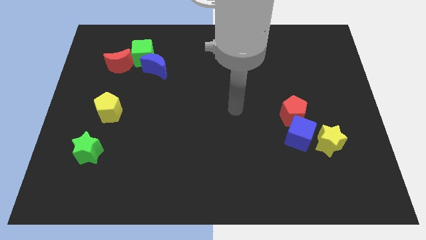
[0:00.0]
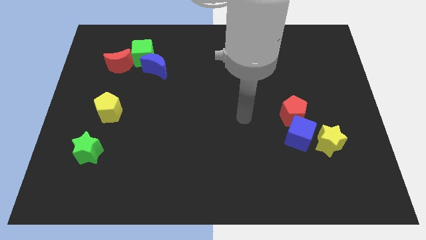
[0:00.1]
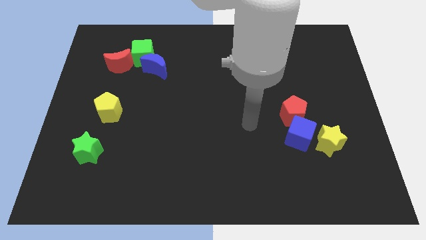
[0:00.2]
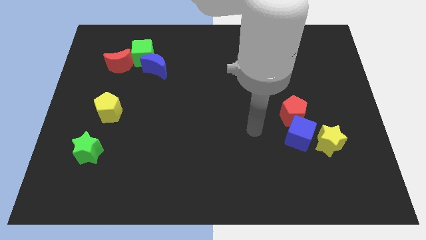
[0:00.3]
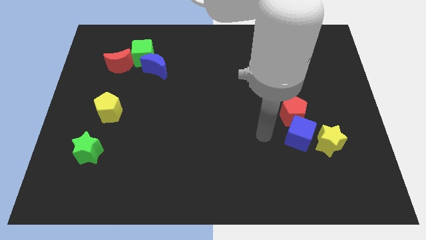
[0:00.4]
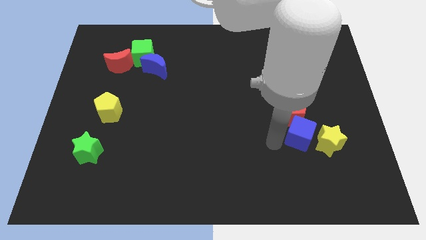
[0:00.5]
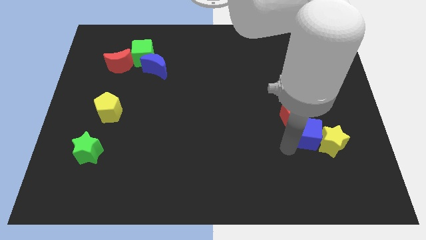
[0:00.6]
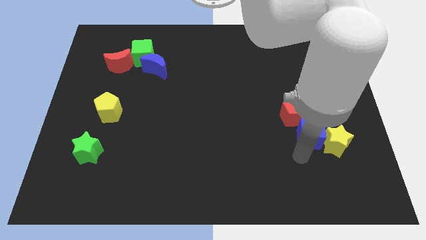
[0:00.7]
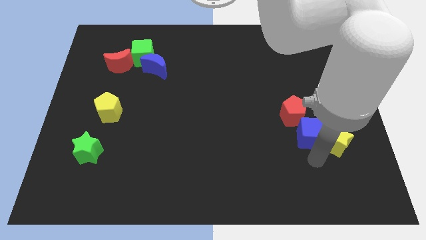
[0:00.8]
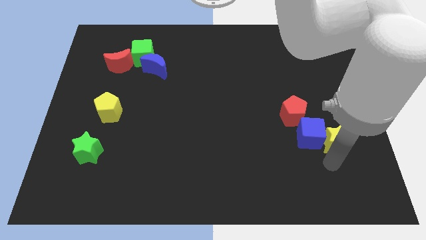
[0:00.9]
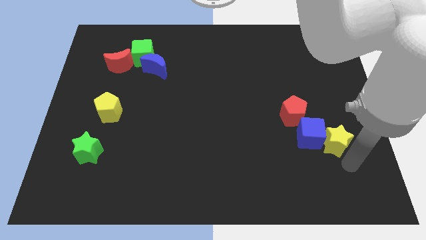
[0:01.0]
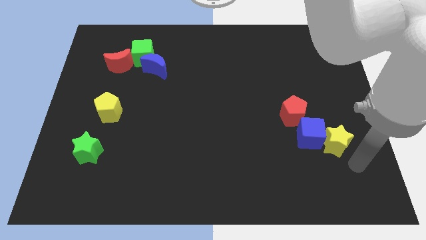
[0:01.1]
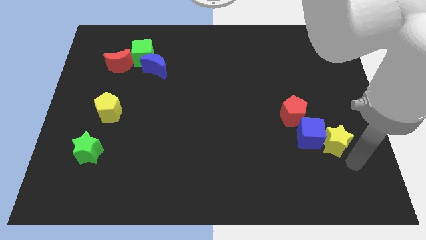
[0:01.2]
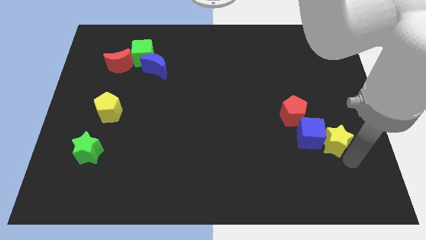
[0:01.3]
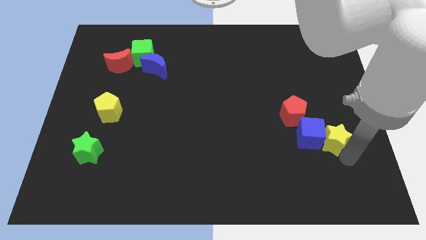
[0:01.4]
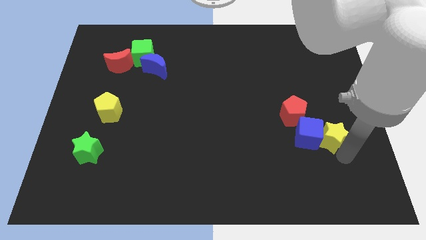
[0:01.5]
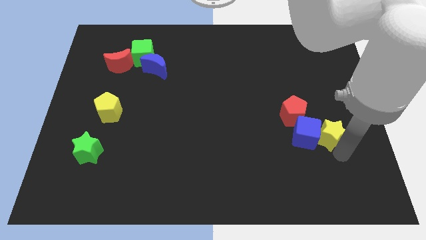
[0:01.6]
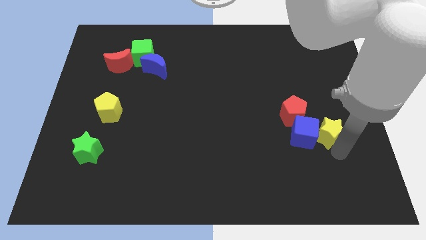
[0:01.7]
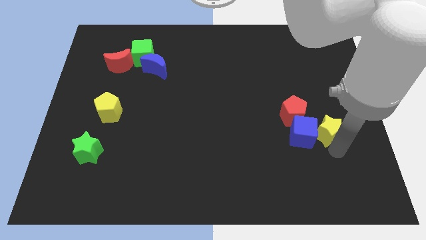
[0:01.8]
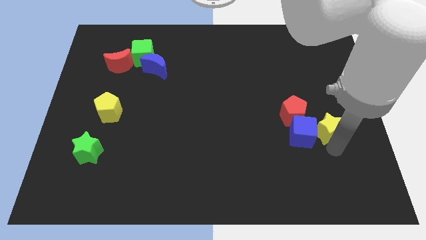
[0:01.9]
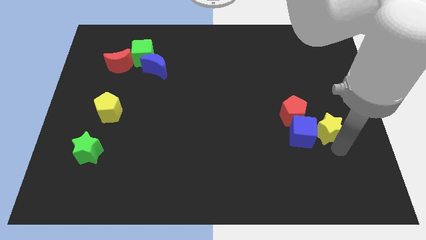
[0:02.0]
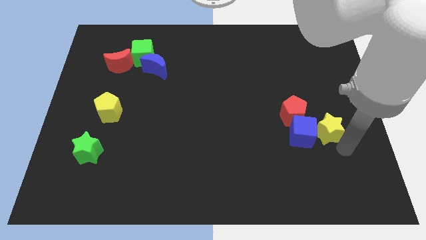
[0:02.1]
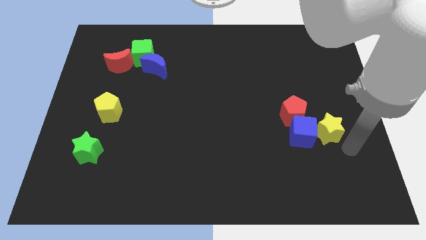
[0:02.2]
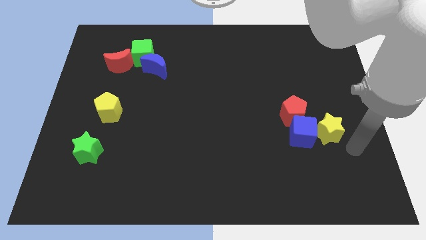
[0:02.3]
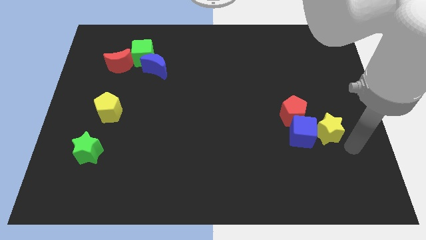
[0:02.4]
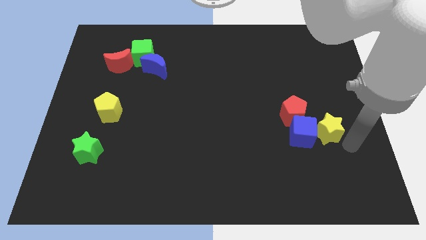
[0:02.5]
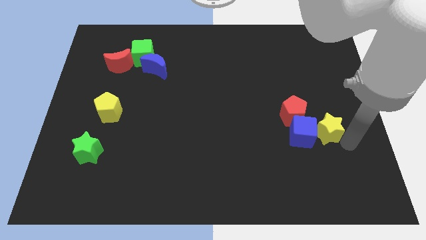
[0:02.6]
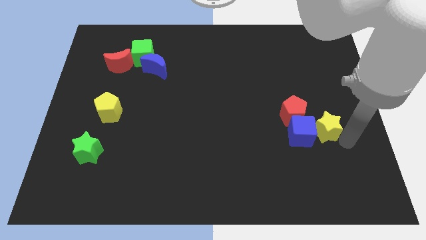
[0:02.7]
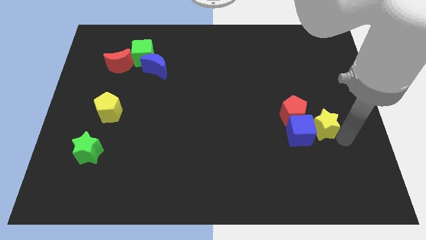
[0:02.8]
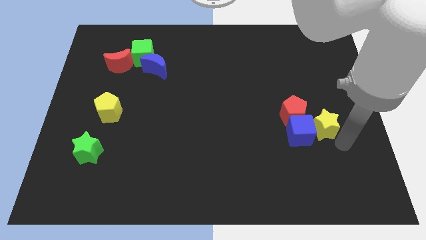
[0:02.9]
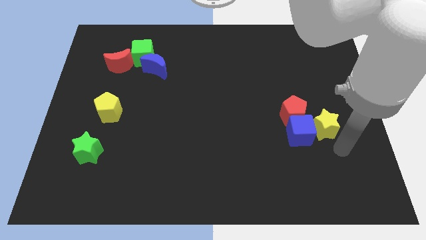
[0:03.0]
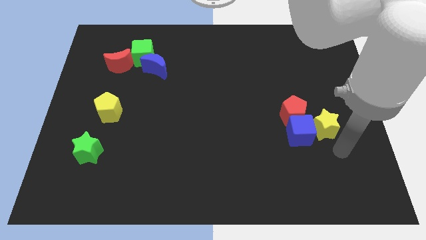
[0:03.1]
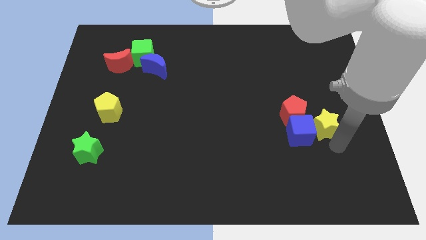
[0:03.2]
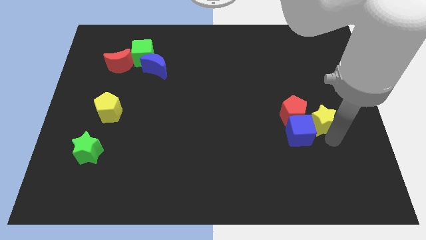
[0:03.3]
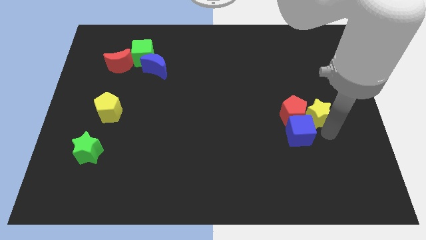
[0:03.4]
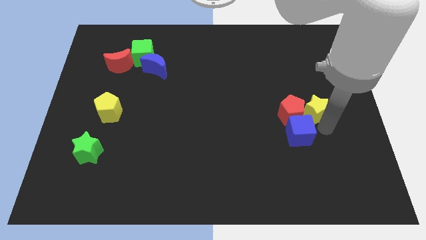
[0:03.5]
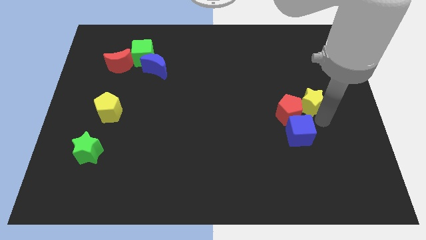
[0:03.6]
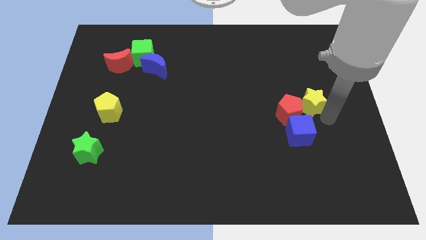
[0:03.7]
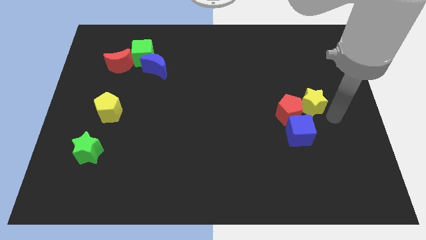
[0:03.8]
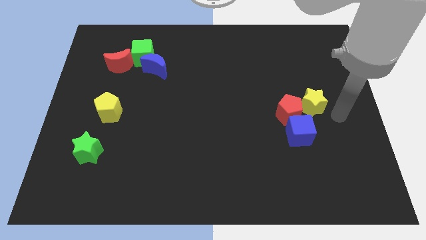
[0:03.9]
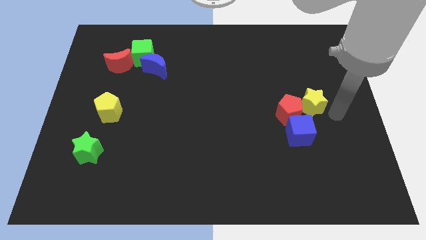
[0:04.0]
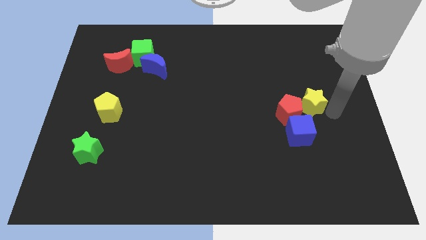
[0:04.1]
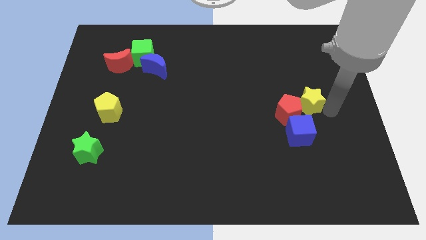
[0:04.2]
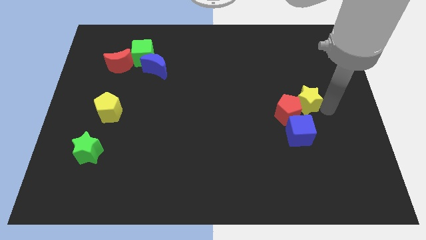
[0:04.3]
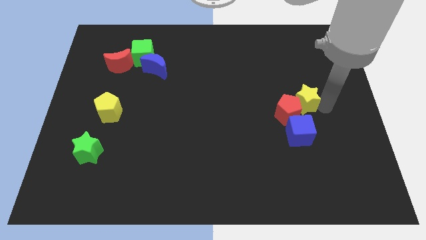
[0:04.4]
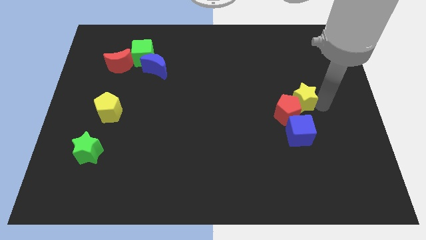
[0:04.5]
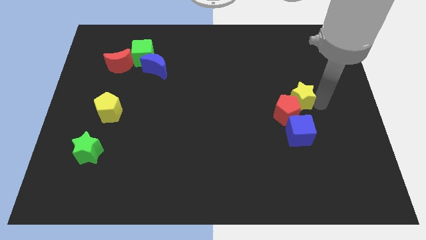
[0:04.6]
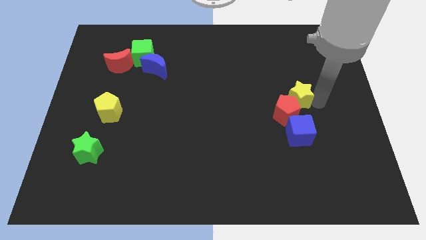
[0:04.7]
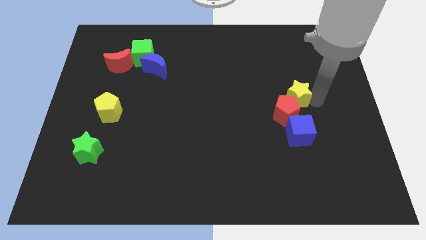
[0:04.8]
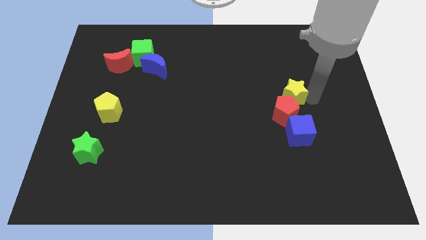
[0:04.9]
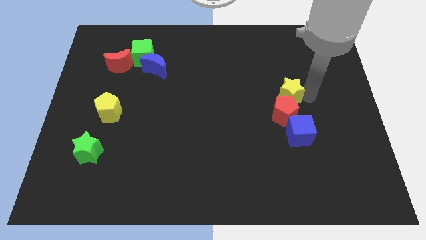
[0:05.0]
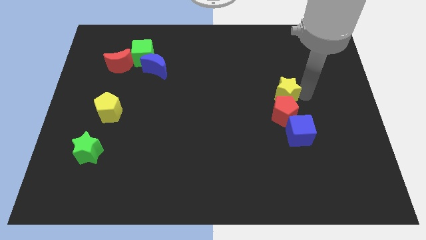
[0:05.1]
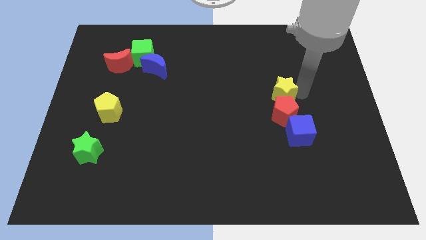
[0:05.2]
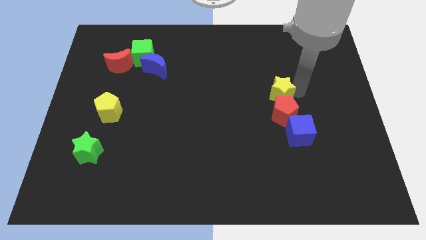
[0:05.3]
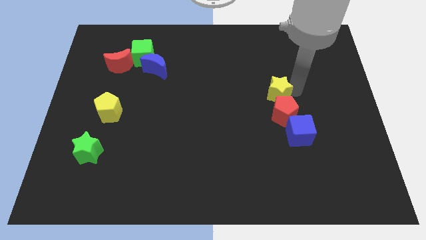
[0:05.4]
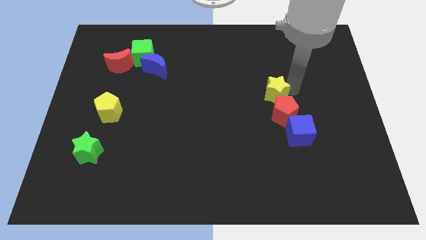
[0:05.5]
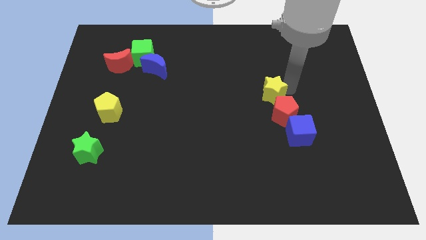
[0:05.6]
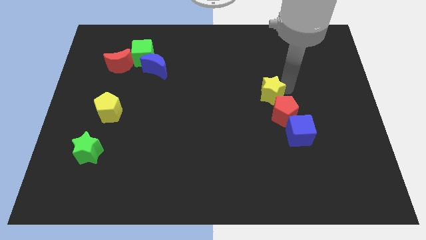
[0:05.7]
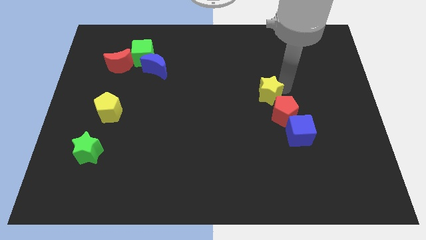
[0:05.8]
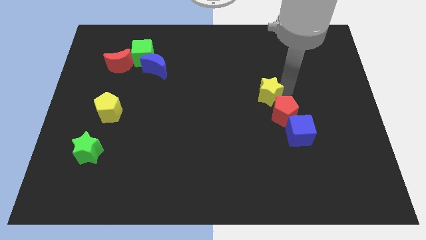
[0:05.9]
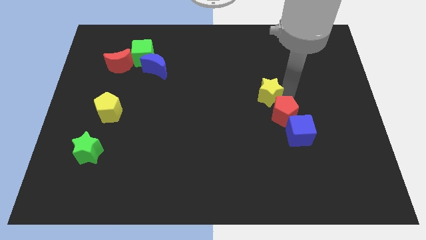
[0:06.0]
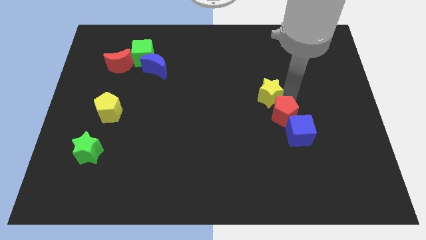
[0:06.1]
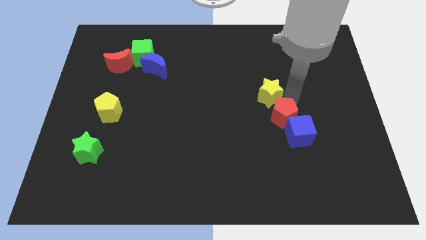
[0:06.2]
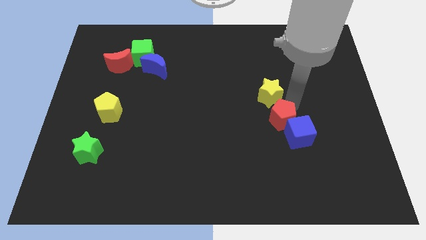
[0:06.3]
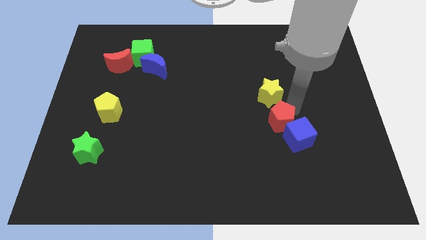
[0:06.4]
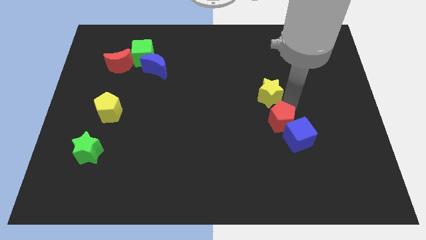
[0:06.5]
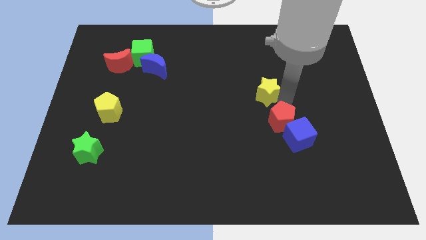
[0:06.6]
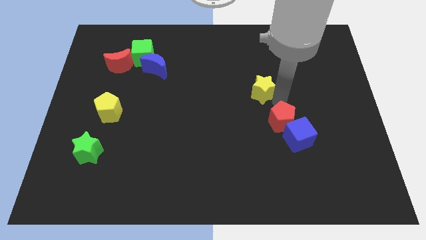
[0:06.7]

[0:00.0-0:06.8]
push the yellow star up and to the left diagonally

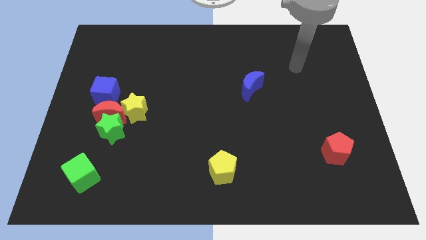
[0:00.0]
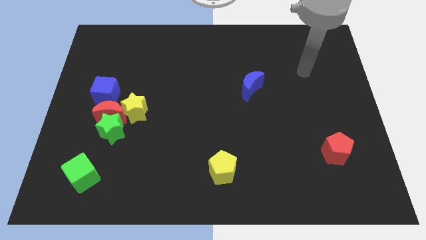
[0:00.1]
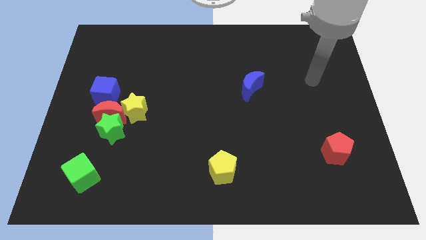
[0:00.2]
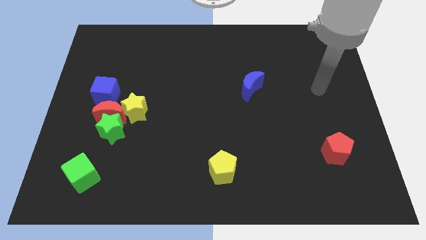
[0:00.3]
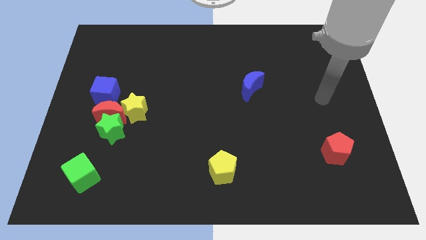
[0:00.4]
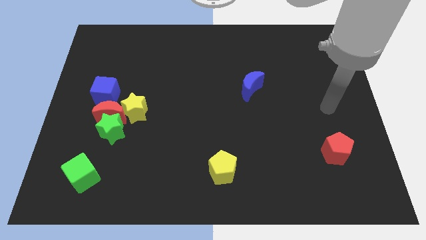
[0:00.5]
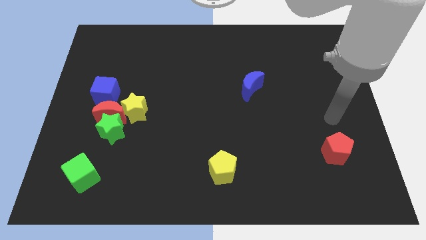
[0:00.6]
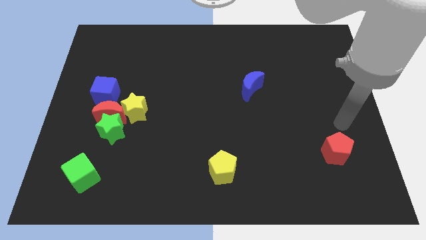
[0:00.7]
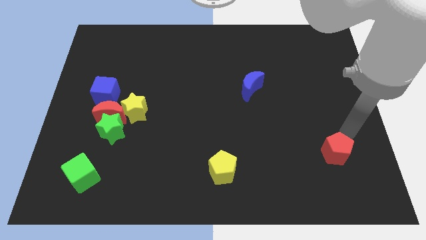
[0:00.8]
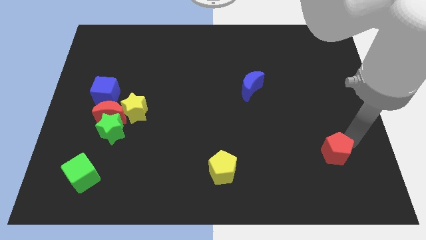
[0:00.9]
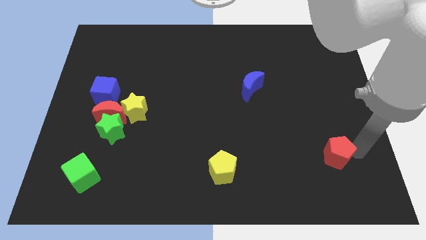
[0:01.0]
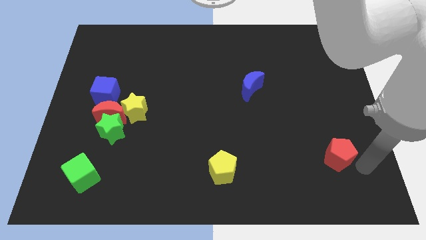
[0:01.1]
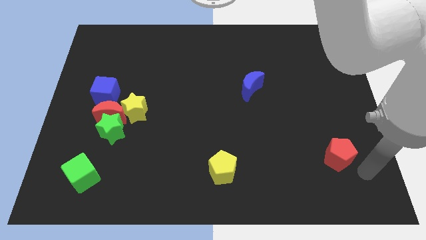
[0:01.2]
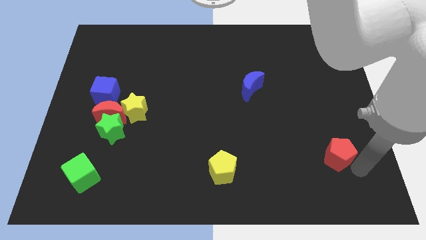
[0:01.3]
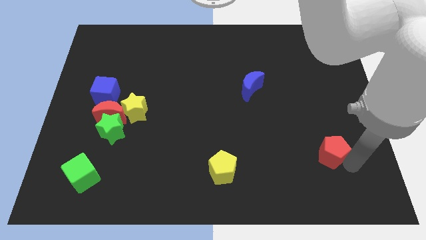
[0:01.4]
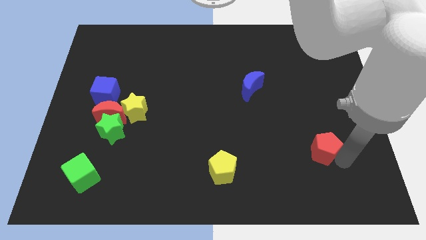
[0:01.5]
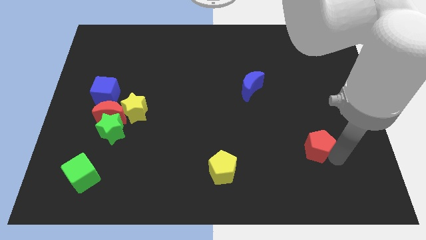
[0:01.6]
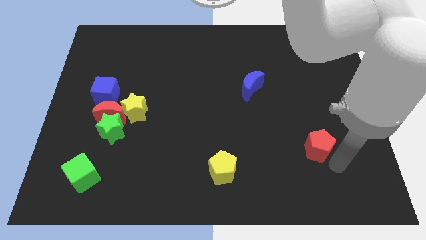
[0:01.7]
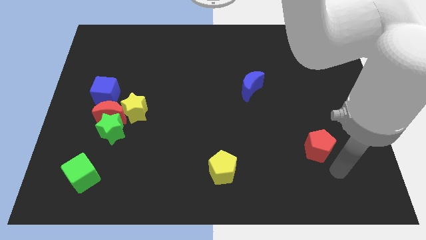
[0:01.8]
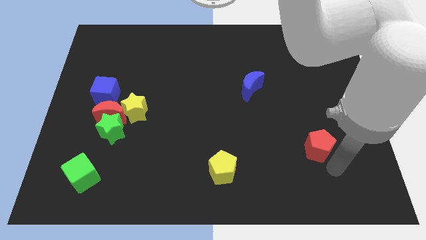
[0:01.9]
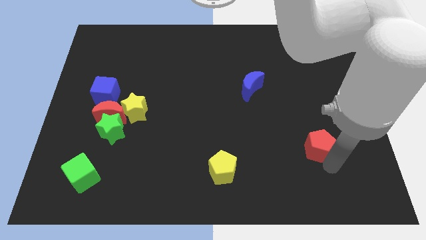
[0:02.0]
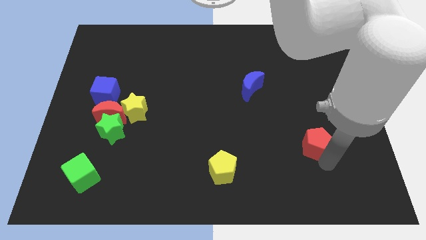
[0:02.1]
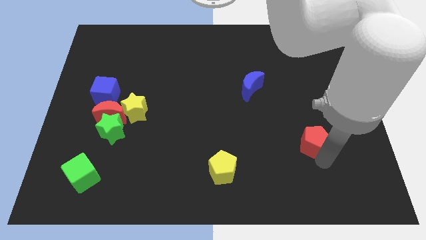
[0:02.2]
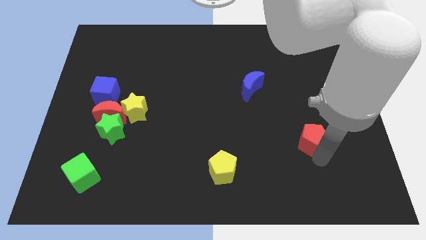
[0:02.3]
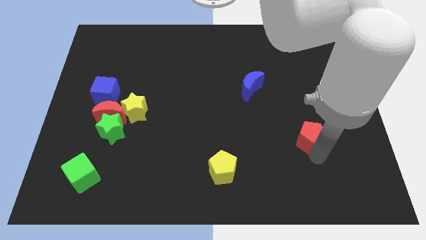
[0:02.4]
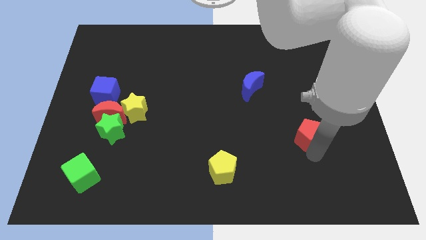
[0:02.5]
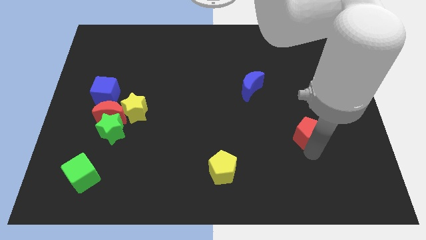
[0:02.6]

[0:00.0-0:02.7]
move the red pentagon diagonally up and to the left somewhat
